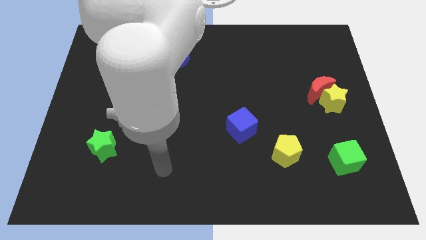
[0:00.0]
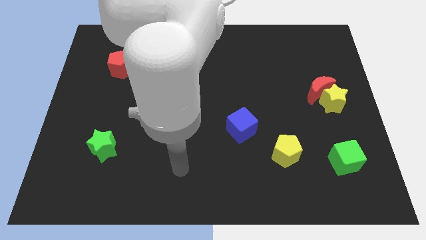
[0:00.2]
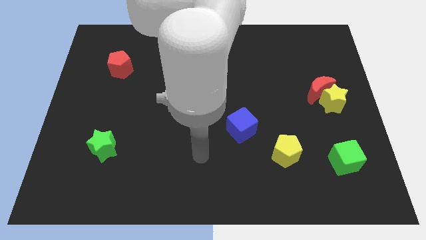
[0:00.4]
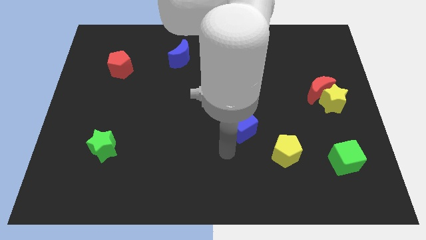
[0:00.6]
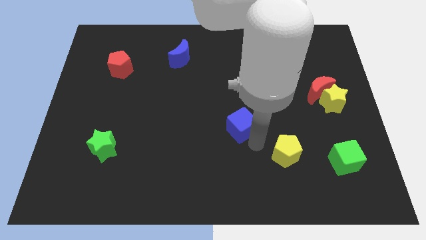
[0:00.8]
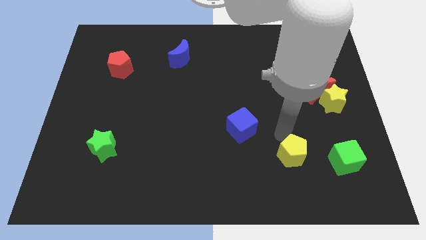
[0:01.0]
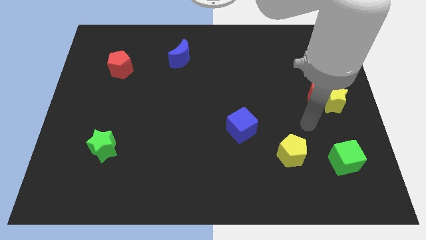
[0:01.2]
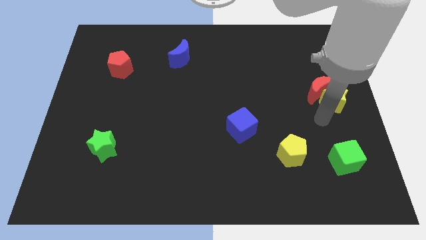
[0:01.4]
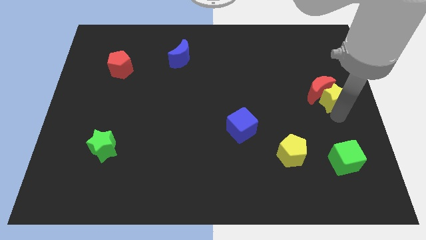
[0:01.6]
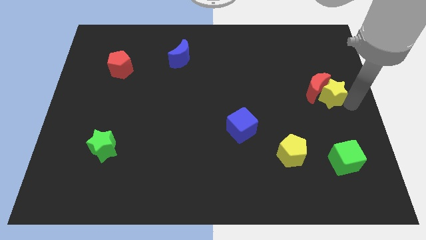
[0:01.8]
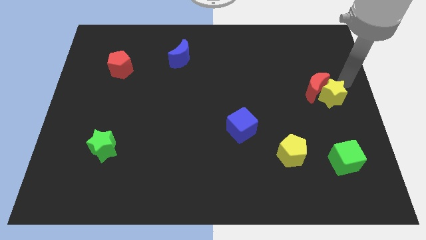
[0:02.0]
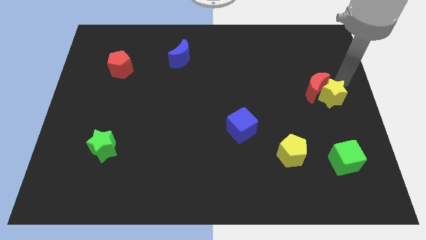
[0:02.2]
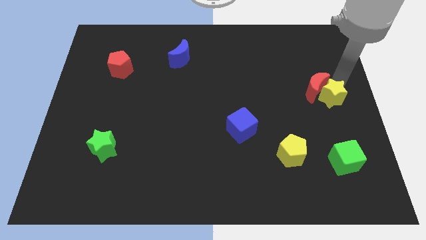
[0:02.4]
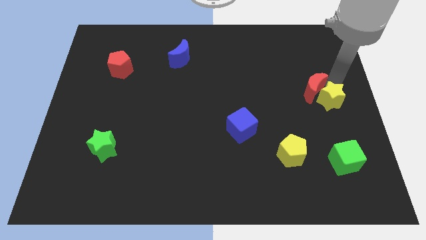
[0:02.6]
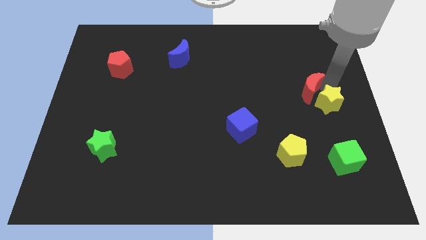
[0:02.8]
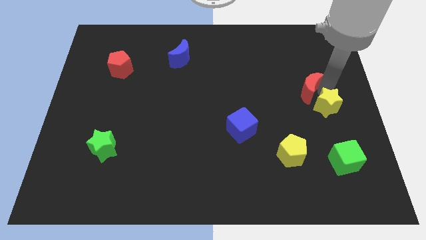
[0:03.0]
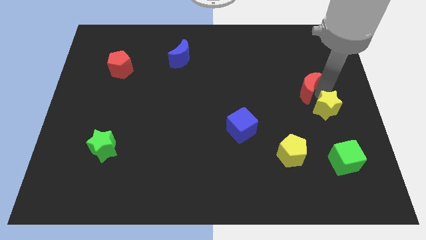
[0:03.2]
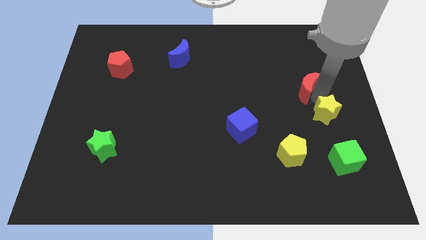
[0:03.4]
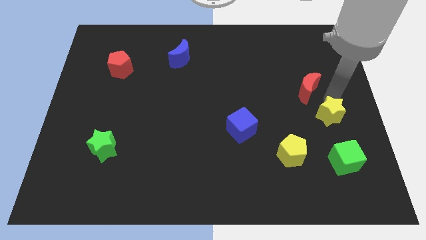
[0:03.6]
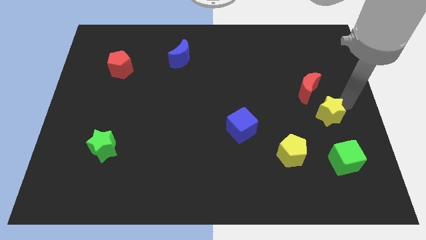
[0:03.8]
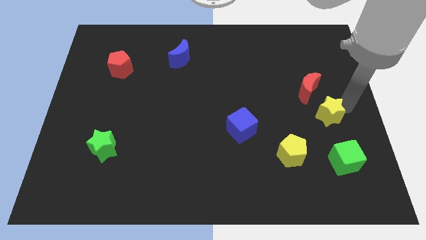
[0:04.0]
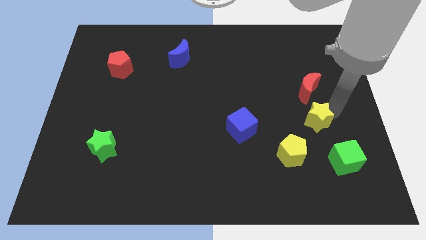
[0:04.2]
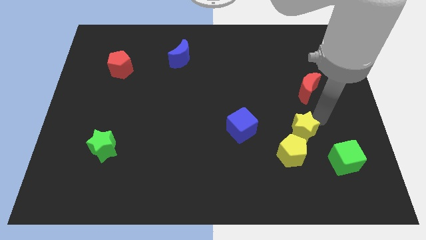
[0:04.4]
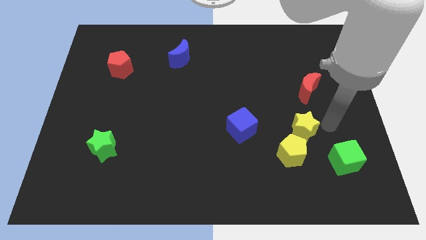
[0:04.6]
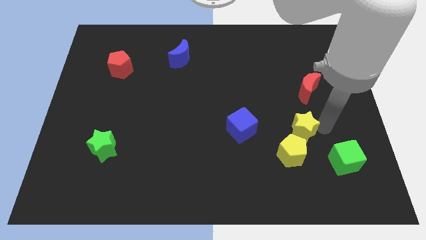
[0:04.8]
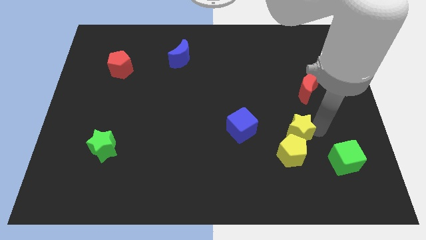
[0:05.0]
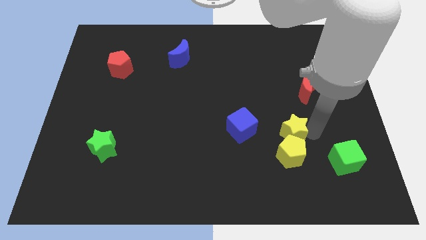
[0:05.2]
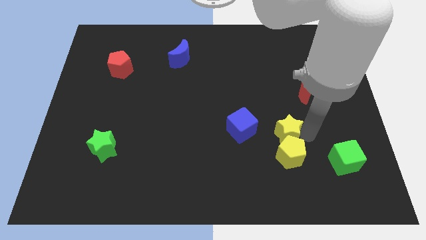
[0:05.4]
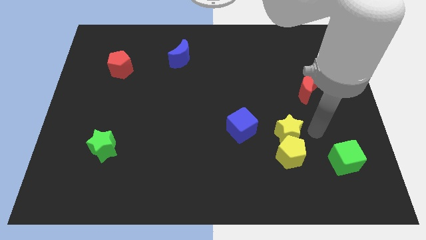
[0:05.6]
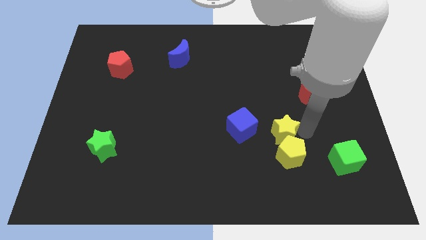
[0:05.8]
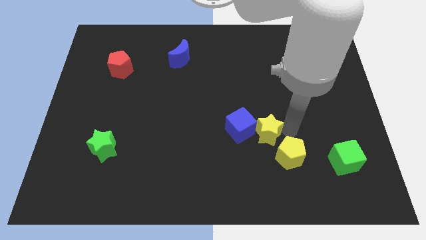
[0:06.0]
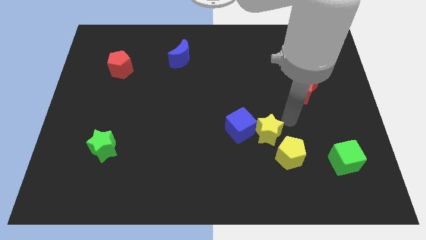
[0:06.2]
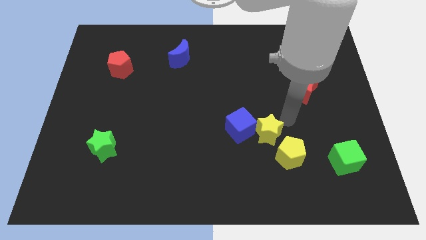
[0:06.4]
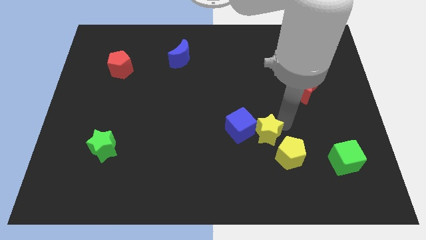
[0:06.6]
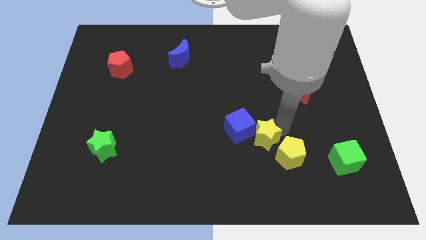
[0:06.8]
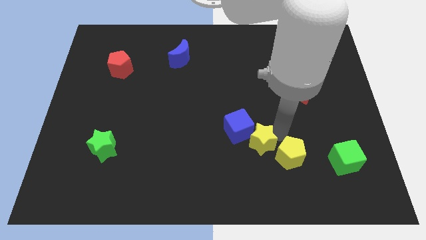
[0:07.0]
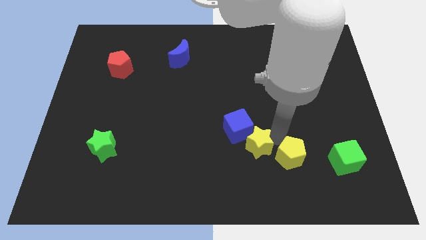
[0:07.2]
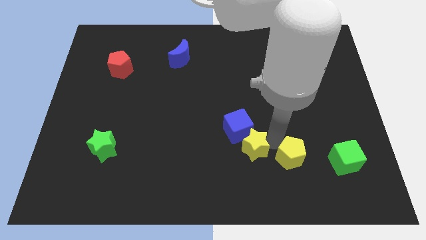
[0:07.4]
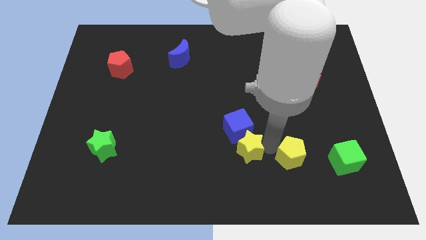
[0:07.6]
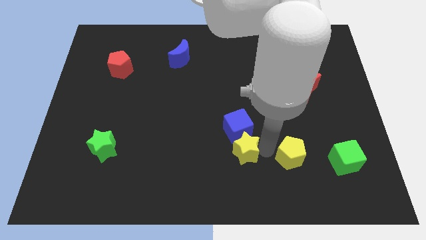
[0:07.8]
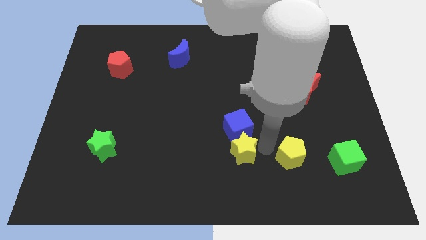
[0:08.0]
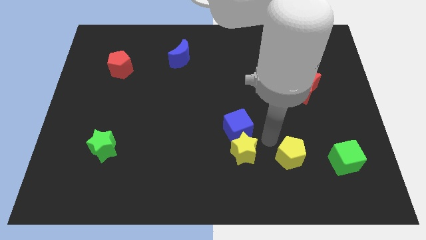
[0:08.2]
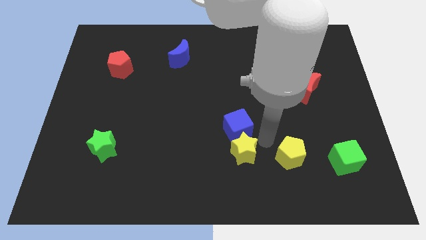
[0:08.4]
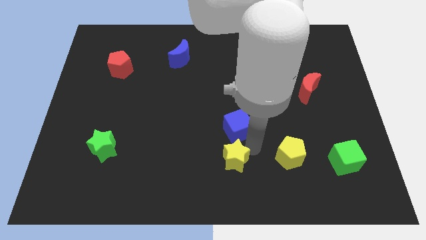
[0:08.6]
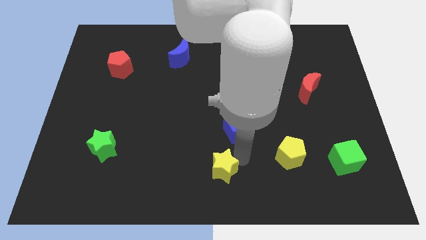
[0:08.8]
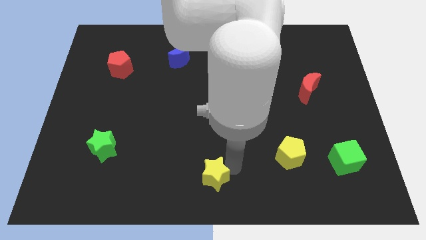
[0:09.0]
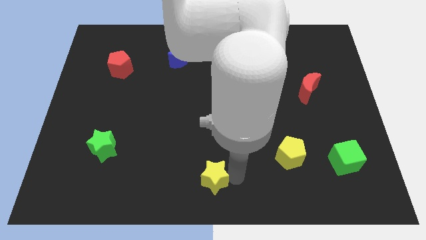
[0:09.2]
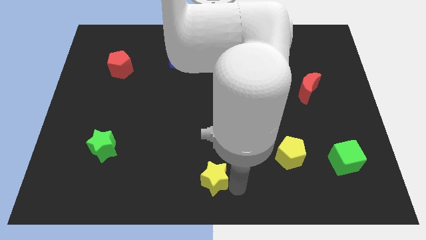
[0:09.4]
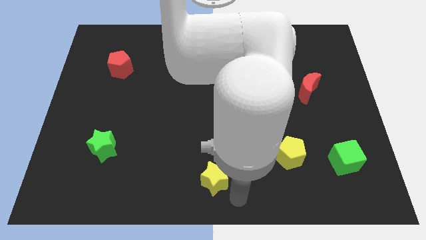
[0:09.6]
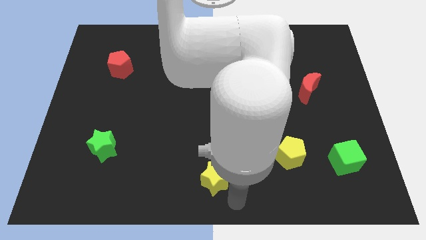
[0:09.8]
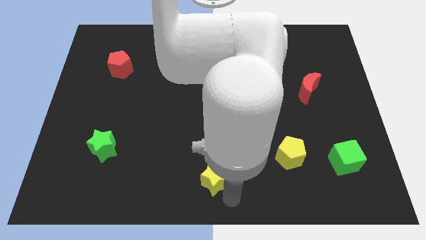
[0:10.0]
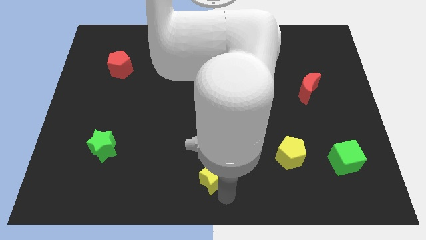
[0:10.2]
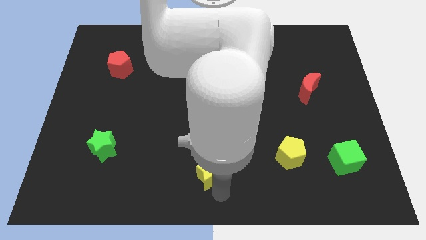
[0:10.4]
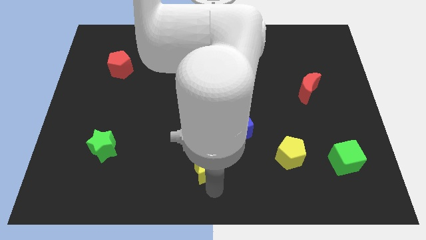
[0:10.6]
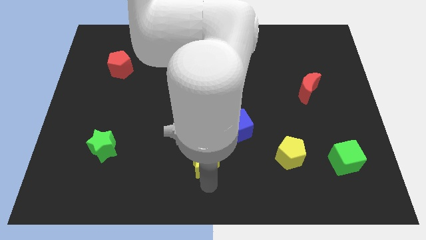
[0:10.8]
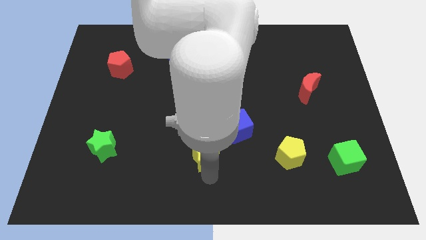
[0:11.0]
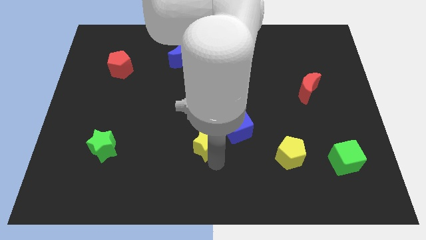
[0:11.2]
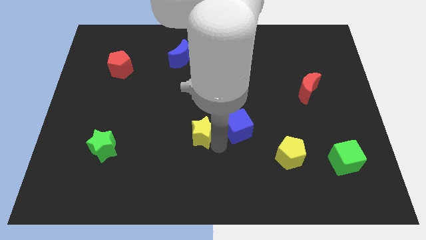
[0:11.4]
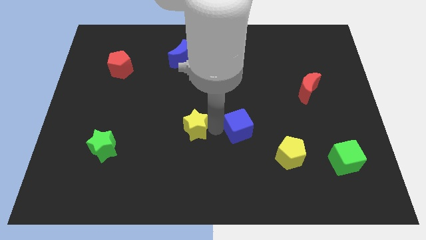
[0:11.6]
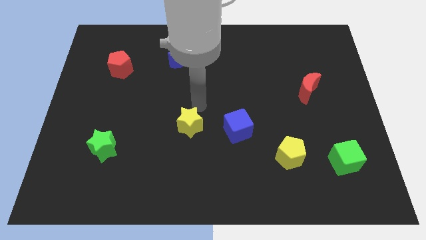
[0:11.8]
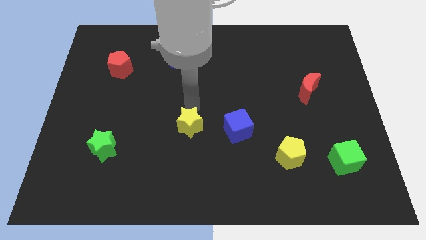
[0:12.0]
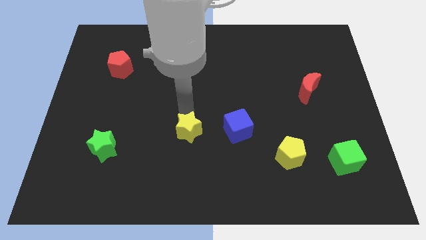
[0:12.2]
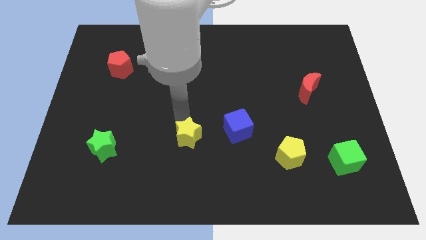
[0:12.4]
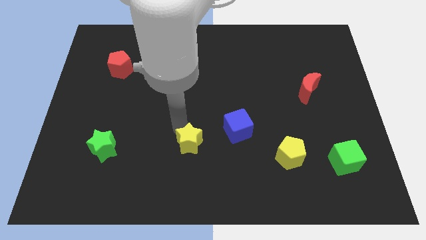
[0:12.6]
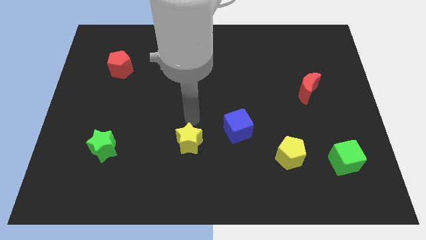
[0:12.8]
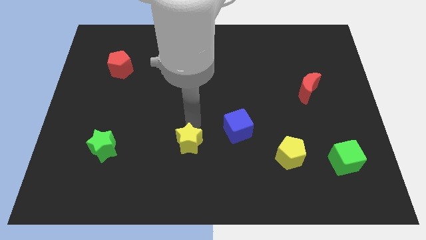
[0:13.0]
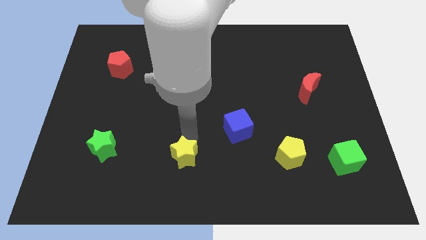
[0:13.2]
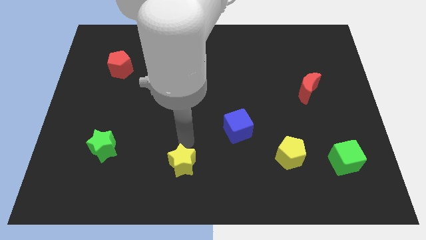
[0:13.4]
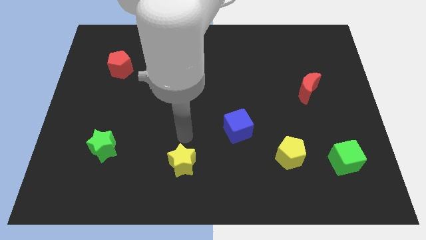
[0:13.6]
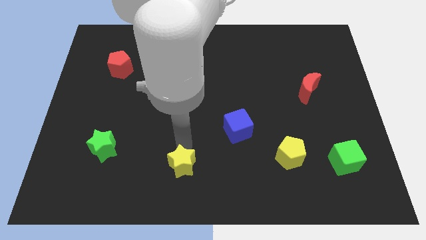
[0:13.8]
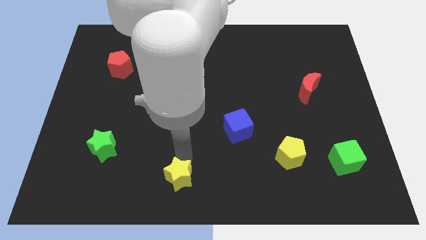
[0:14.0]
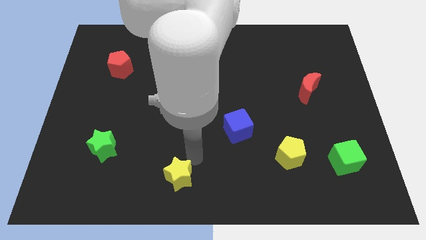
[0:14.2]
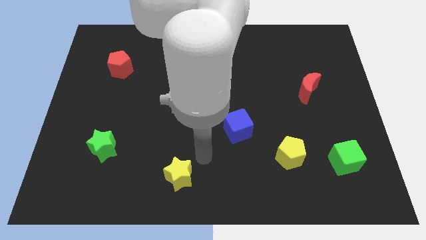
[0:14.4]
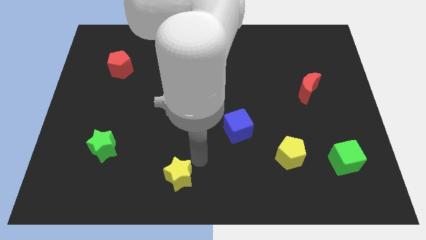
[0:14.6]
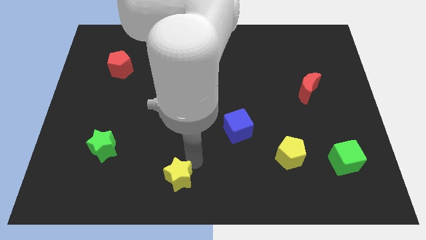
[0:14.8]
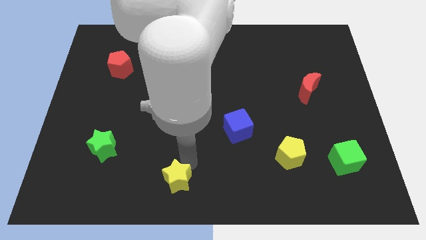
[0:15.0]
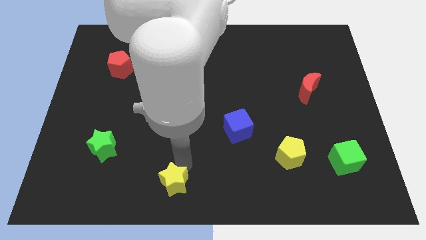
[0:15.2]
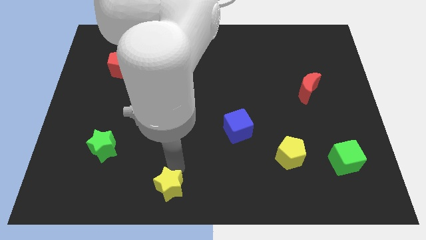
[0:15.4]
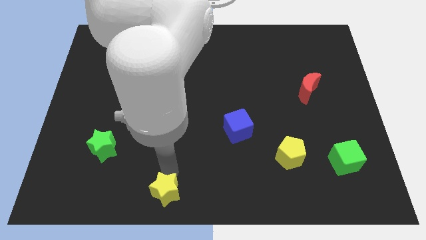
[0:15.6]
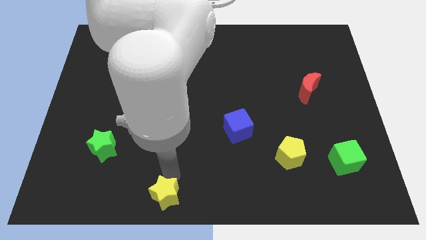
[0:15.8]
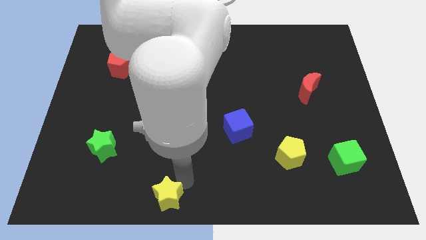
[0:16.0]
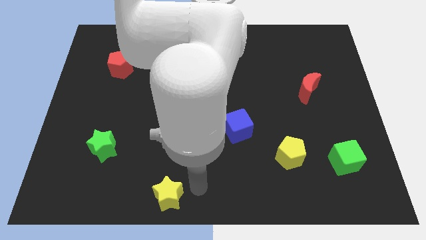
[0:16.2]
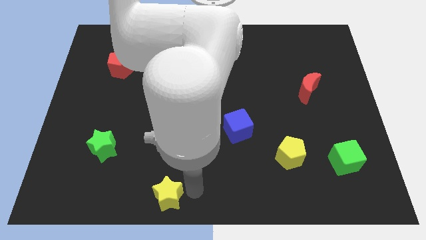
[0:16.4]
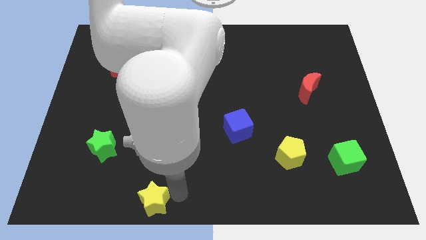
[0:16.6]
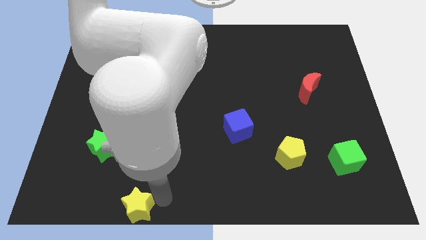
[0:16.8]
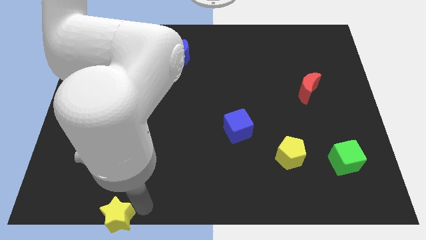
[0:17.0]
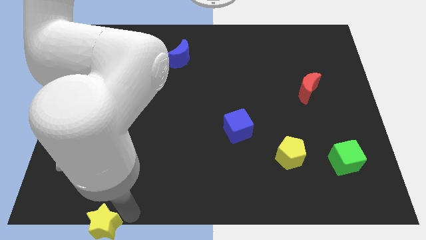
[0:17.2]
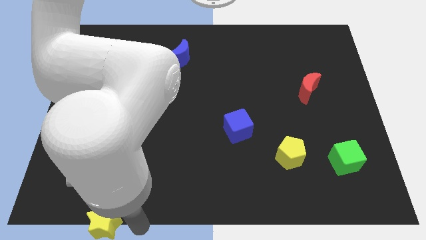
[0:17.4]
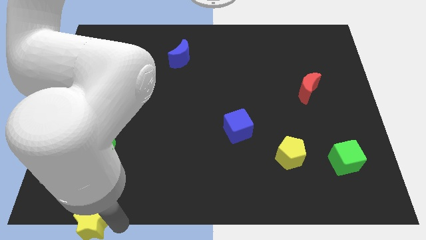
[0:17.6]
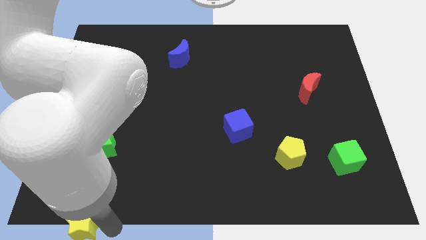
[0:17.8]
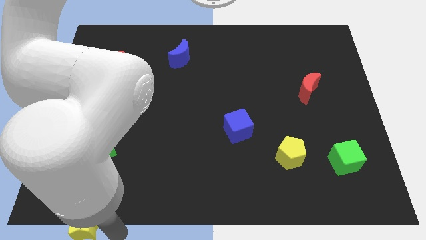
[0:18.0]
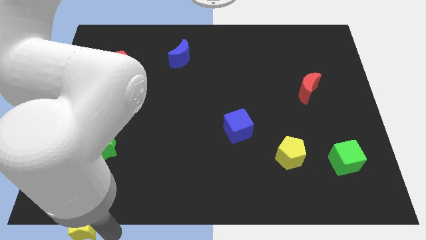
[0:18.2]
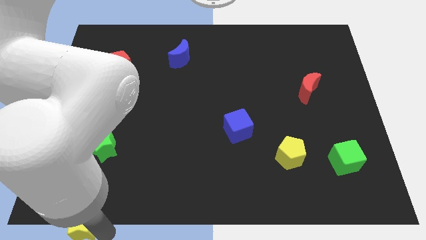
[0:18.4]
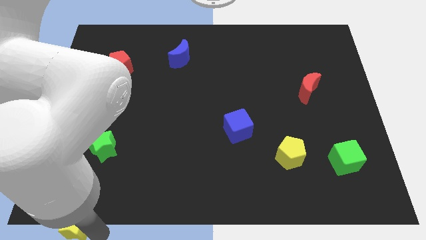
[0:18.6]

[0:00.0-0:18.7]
push the yellow star to the lower left corner
